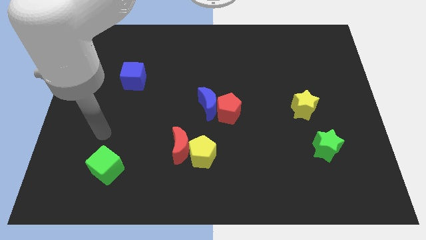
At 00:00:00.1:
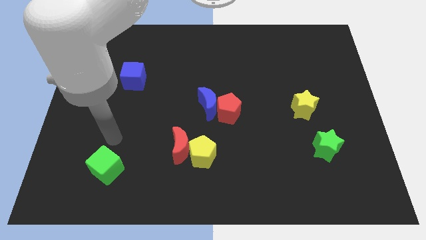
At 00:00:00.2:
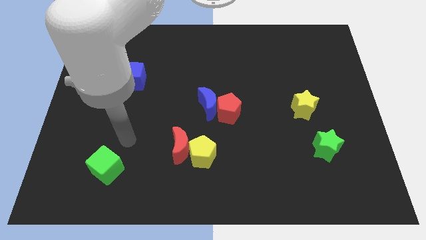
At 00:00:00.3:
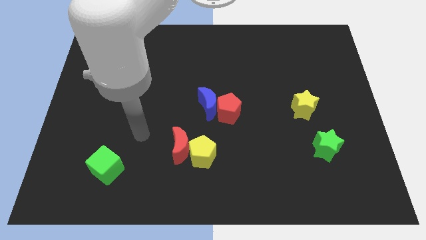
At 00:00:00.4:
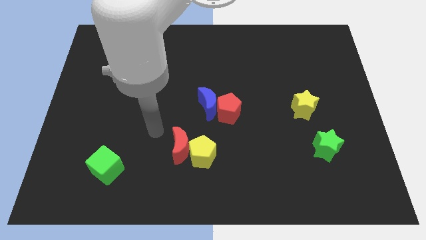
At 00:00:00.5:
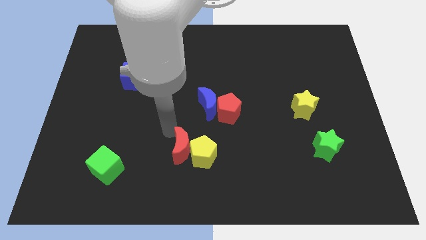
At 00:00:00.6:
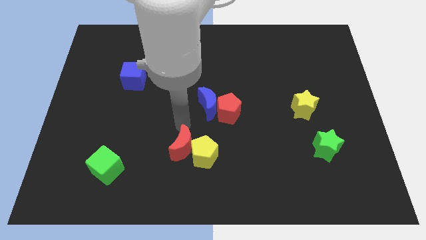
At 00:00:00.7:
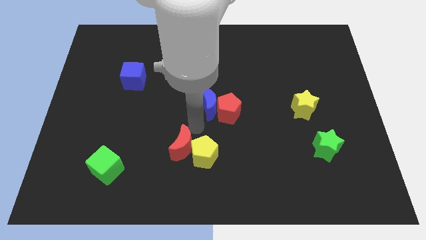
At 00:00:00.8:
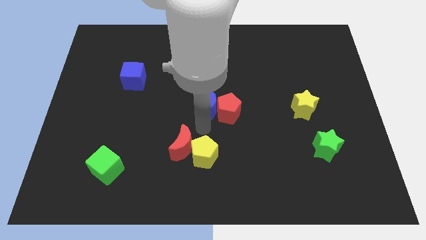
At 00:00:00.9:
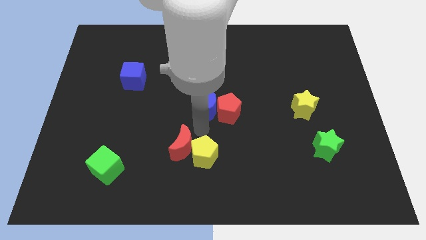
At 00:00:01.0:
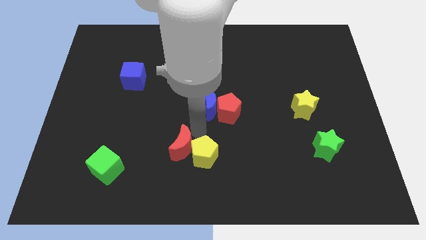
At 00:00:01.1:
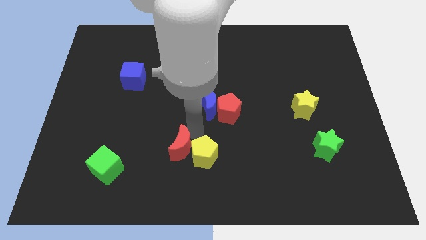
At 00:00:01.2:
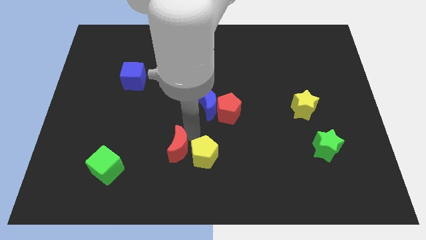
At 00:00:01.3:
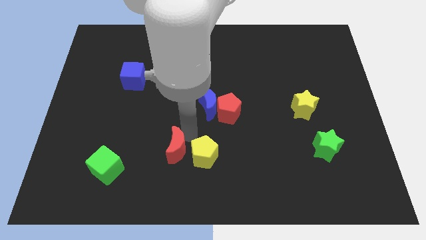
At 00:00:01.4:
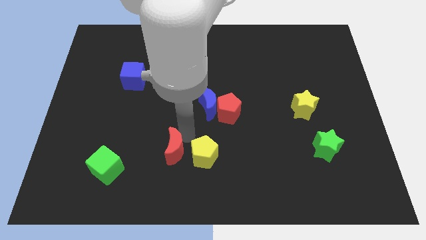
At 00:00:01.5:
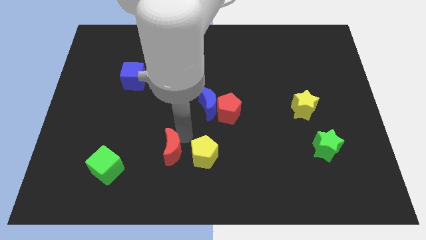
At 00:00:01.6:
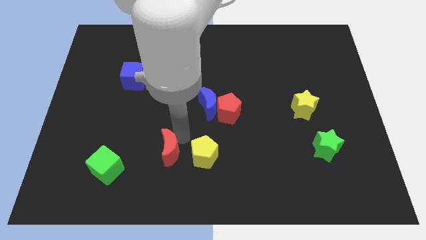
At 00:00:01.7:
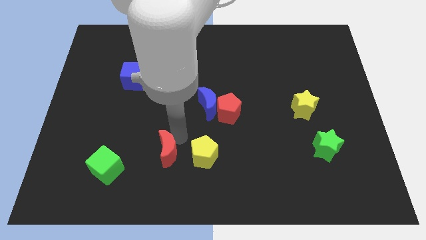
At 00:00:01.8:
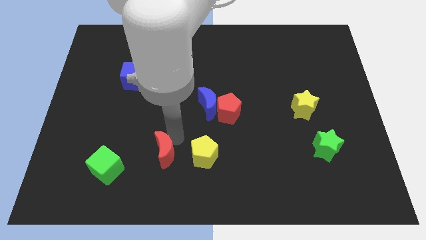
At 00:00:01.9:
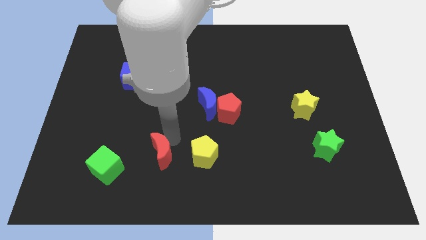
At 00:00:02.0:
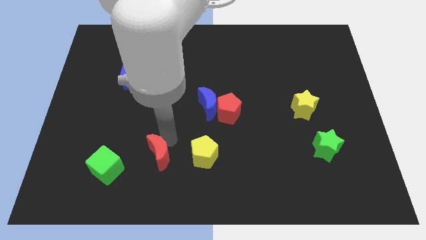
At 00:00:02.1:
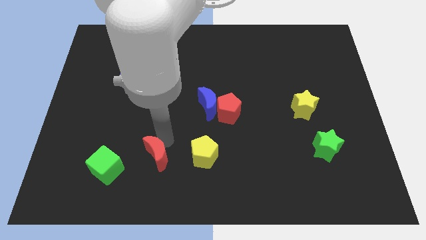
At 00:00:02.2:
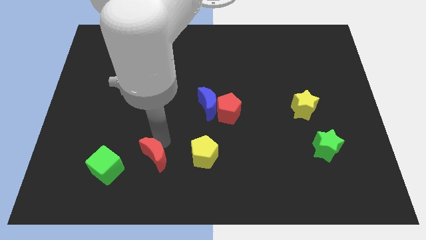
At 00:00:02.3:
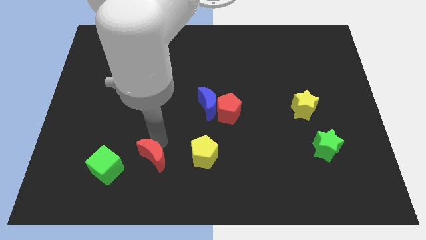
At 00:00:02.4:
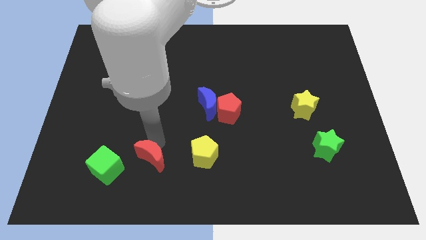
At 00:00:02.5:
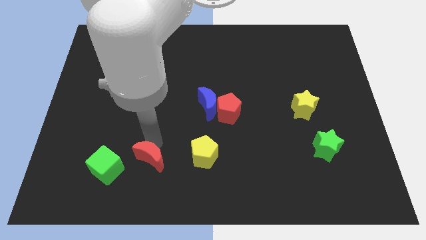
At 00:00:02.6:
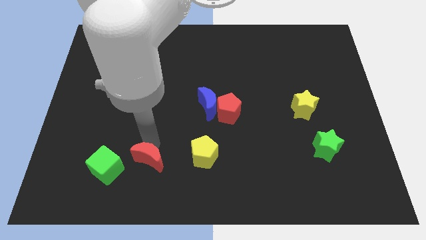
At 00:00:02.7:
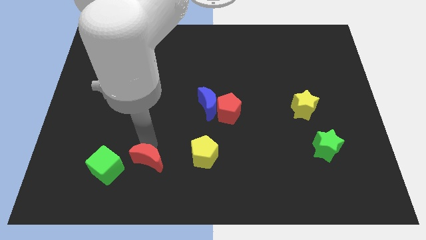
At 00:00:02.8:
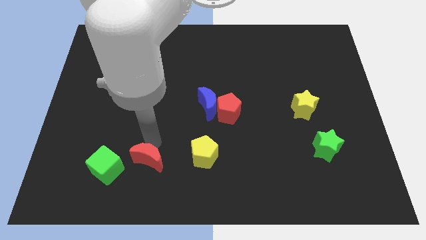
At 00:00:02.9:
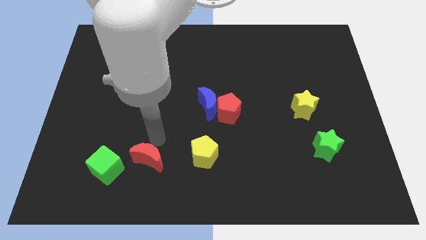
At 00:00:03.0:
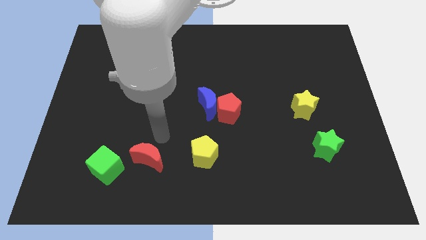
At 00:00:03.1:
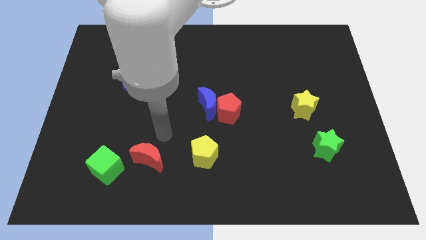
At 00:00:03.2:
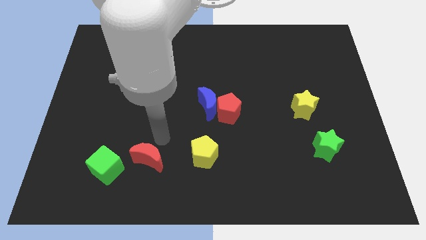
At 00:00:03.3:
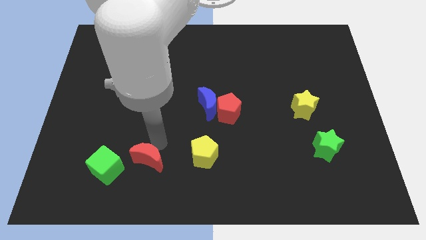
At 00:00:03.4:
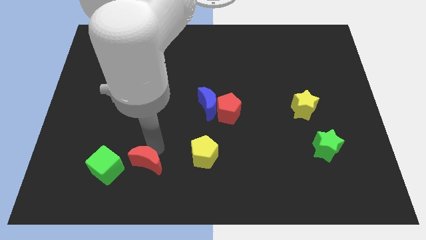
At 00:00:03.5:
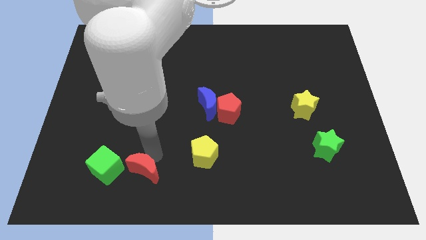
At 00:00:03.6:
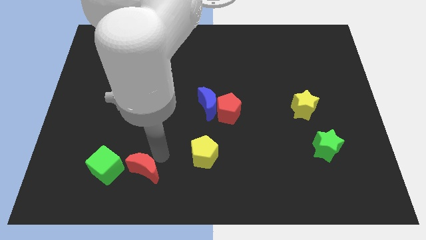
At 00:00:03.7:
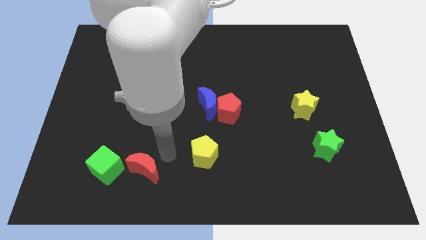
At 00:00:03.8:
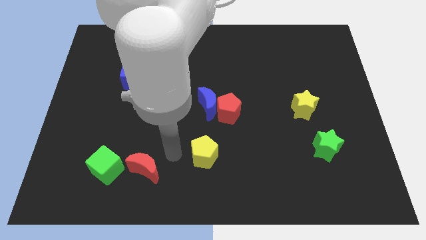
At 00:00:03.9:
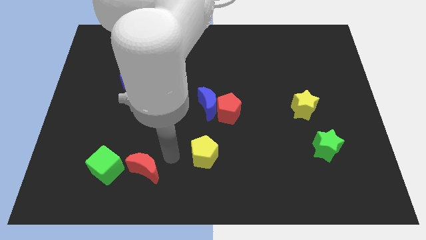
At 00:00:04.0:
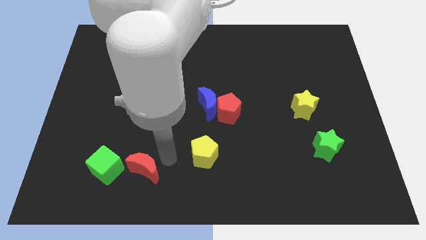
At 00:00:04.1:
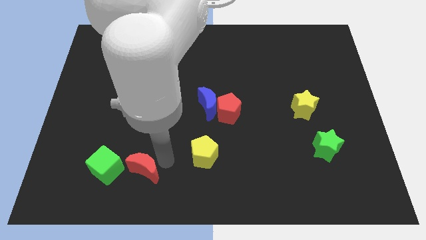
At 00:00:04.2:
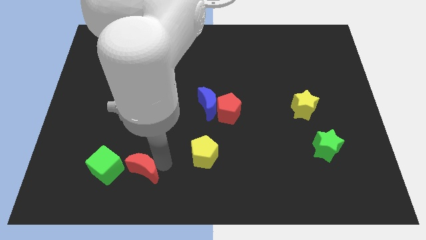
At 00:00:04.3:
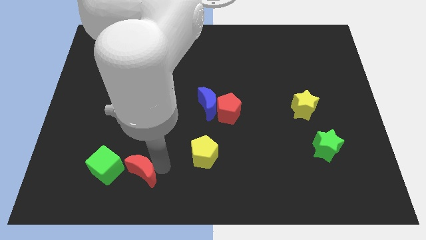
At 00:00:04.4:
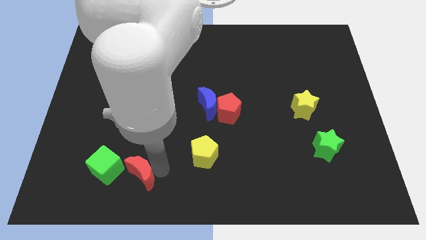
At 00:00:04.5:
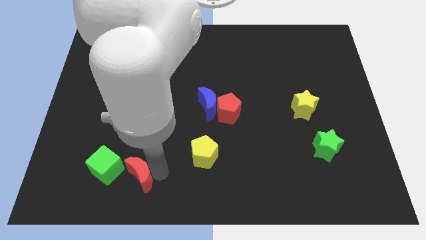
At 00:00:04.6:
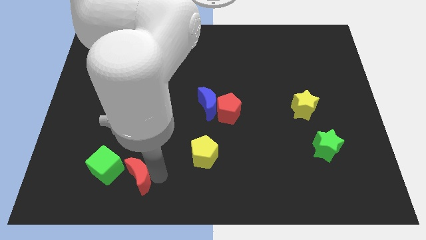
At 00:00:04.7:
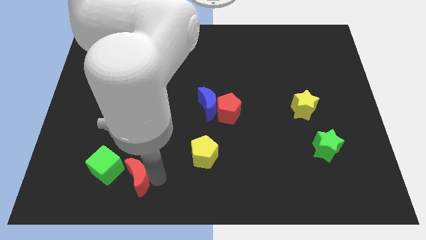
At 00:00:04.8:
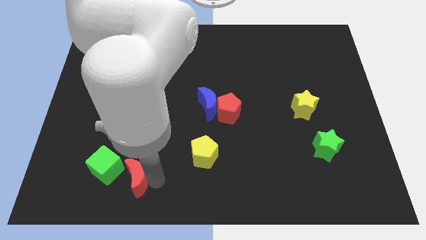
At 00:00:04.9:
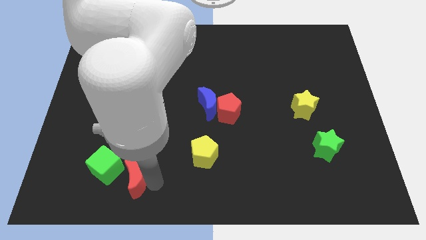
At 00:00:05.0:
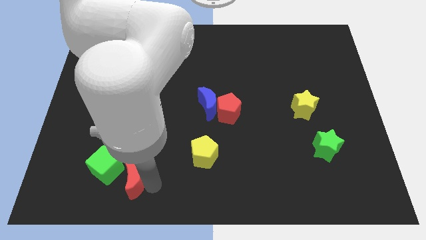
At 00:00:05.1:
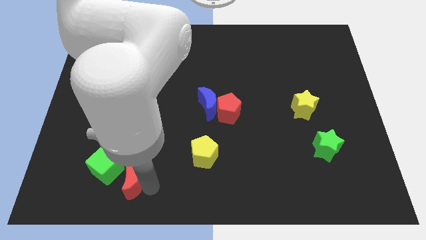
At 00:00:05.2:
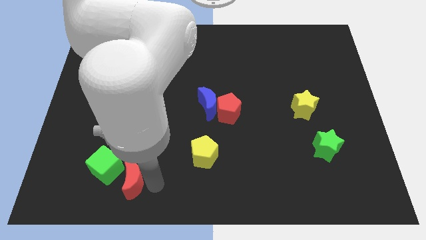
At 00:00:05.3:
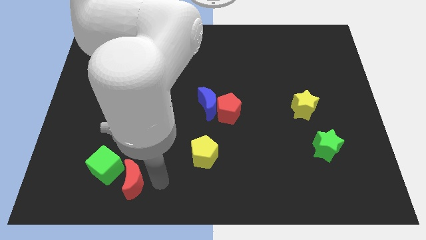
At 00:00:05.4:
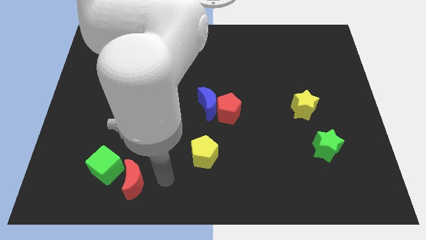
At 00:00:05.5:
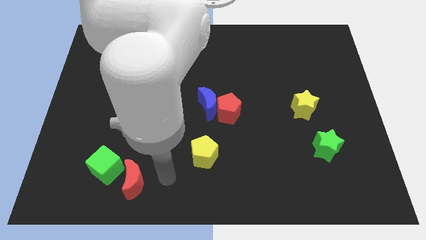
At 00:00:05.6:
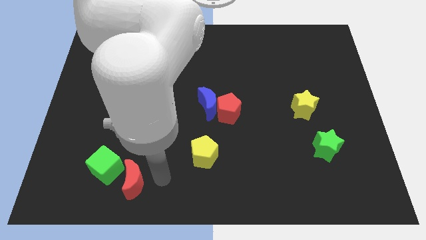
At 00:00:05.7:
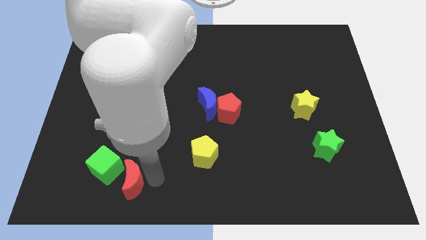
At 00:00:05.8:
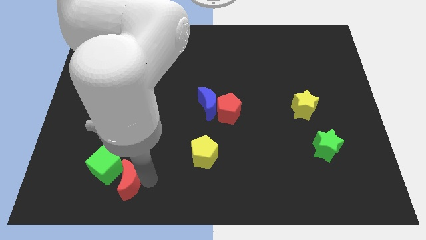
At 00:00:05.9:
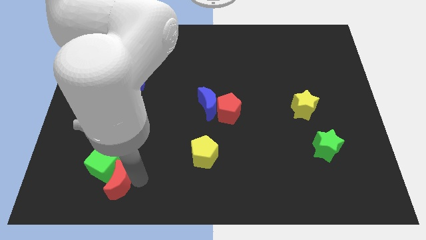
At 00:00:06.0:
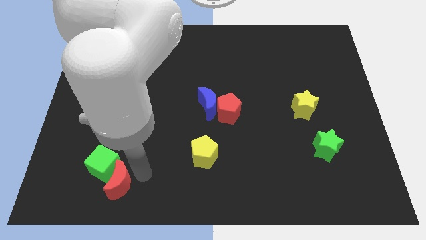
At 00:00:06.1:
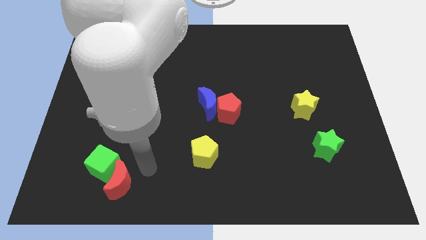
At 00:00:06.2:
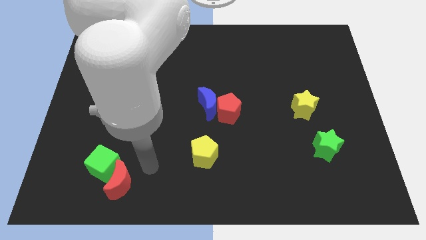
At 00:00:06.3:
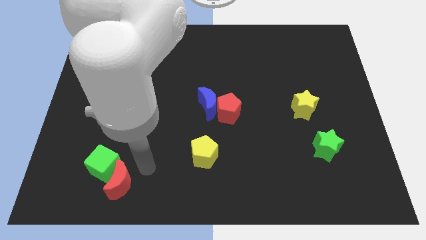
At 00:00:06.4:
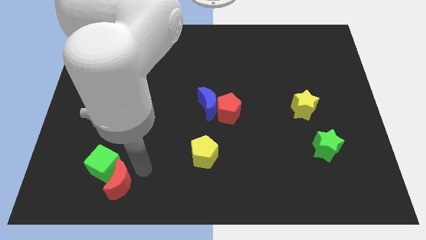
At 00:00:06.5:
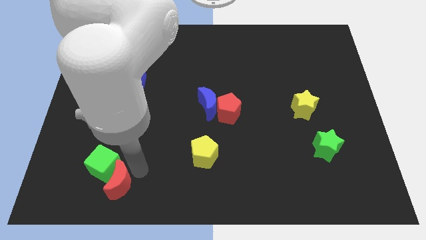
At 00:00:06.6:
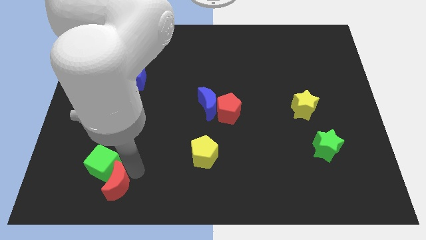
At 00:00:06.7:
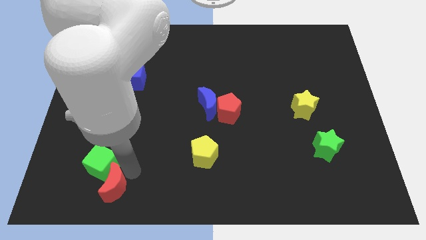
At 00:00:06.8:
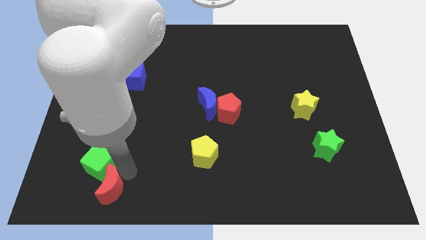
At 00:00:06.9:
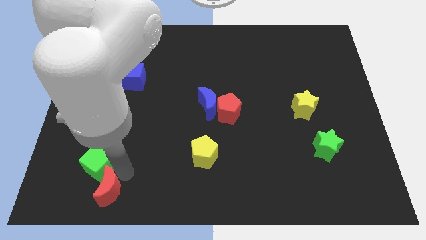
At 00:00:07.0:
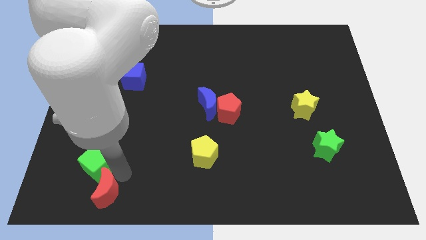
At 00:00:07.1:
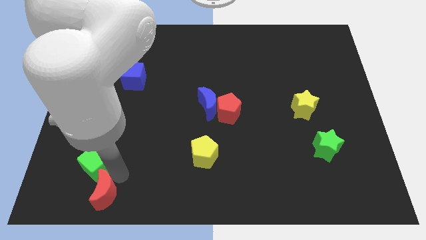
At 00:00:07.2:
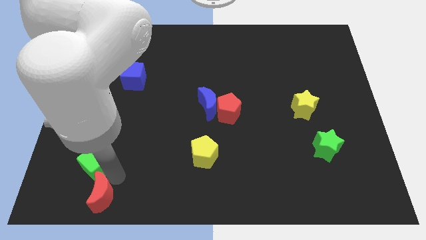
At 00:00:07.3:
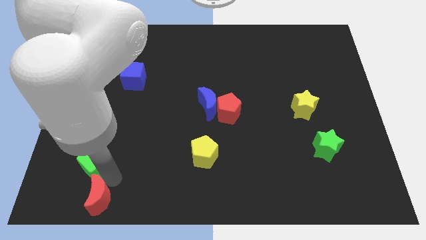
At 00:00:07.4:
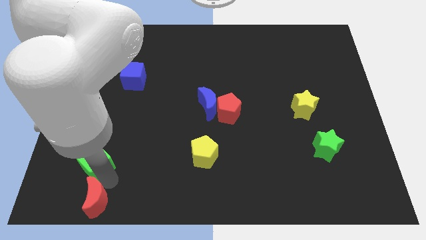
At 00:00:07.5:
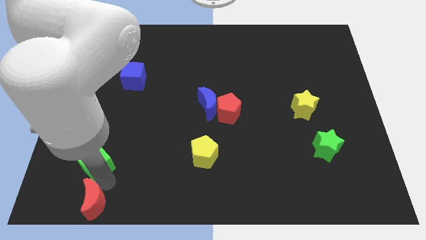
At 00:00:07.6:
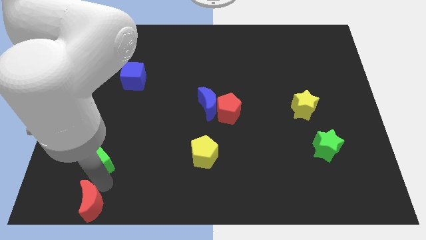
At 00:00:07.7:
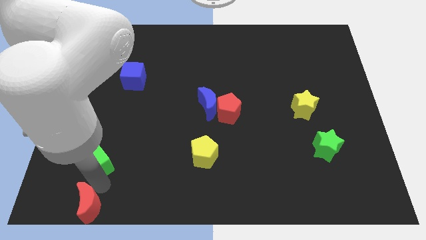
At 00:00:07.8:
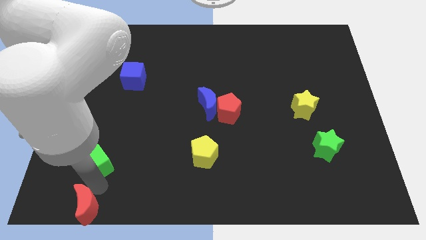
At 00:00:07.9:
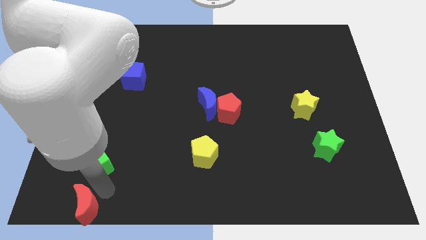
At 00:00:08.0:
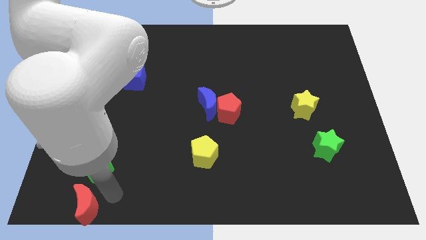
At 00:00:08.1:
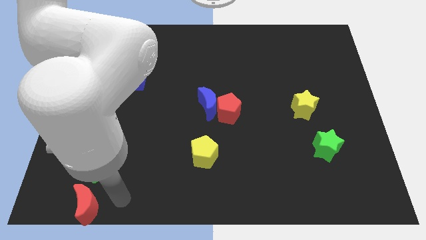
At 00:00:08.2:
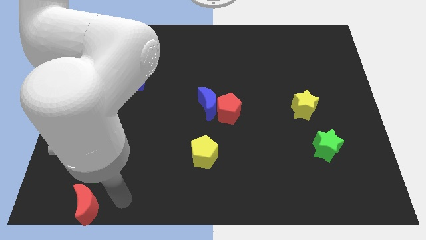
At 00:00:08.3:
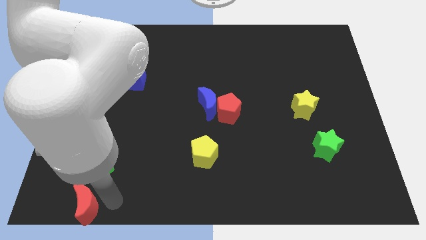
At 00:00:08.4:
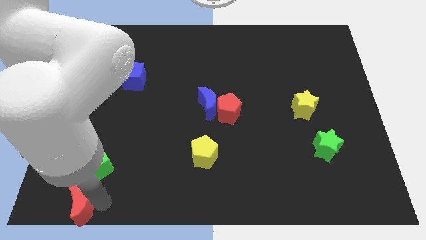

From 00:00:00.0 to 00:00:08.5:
move the red moon to the lower left corner
